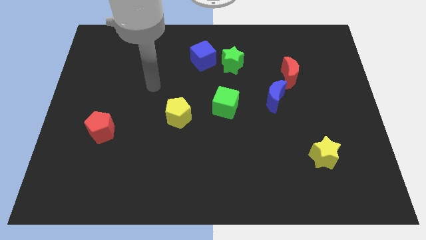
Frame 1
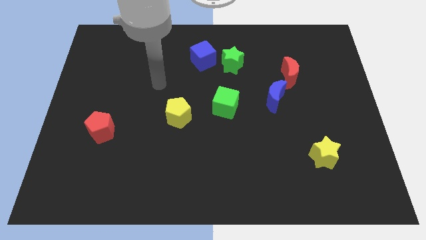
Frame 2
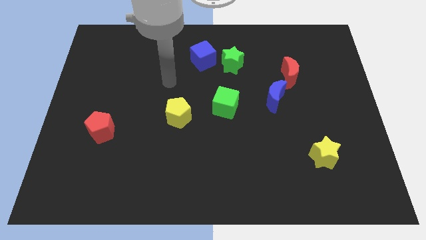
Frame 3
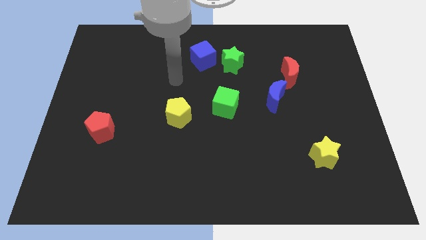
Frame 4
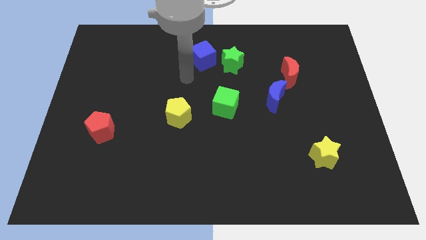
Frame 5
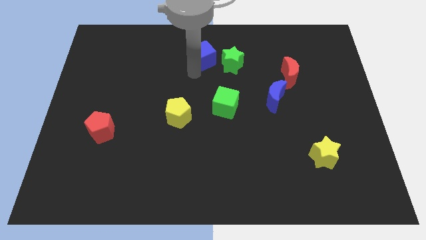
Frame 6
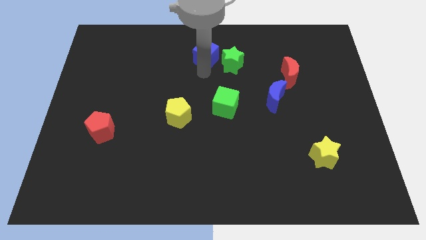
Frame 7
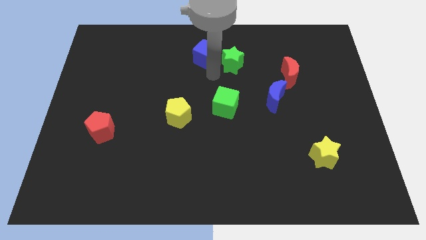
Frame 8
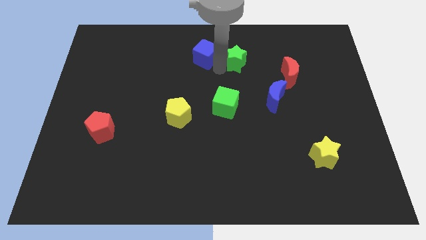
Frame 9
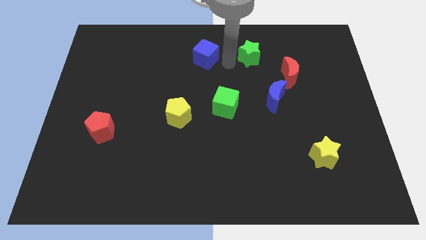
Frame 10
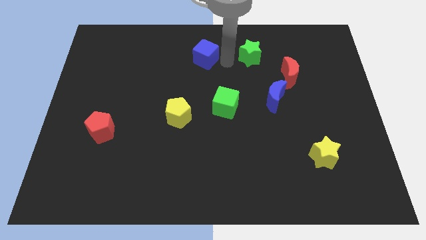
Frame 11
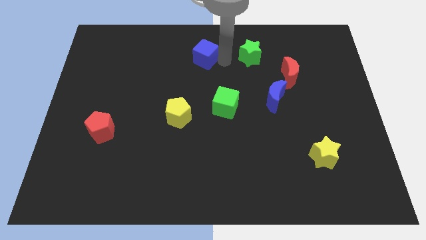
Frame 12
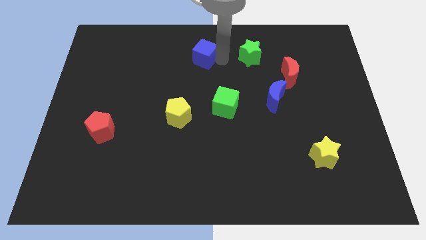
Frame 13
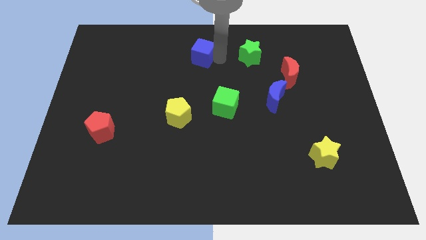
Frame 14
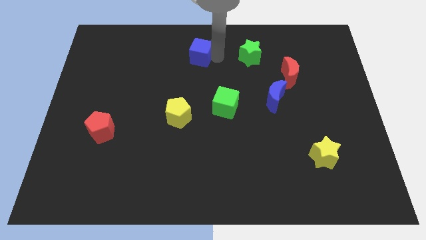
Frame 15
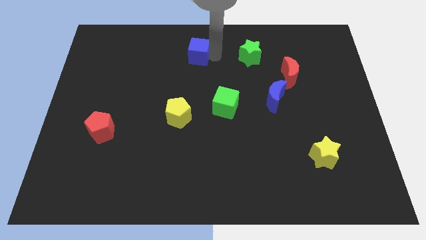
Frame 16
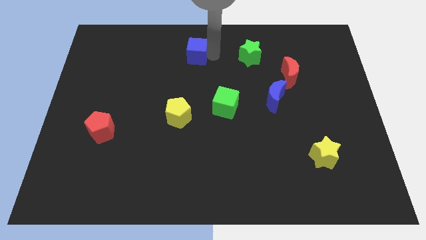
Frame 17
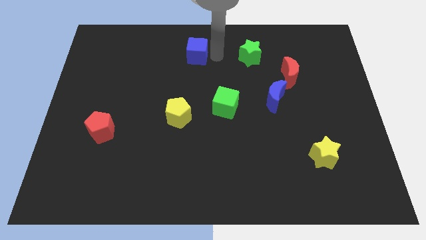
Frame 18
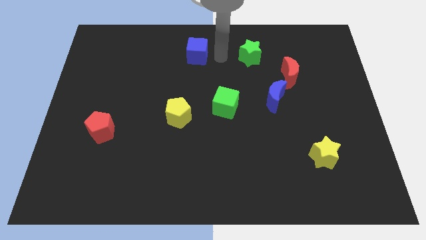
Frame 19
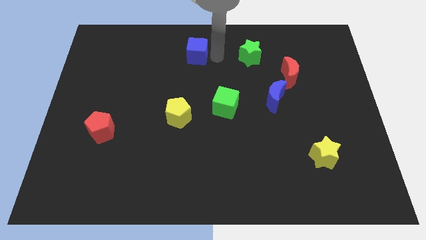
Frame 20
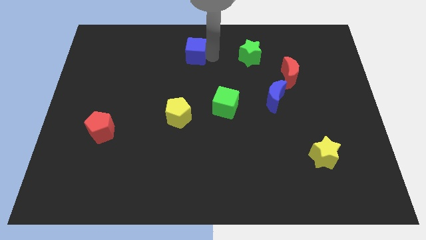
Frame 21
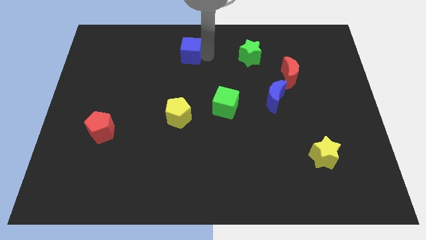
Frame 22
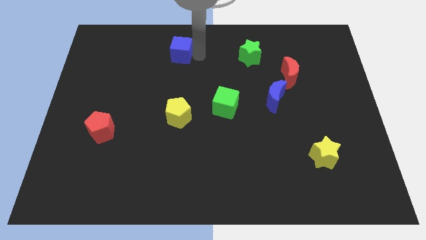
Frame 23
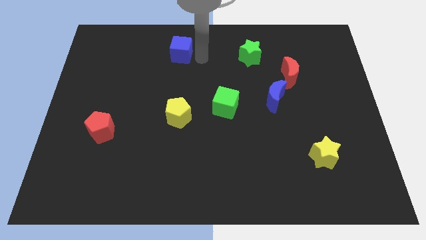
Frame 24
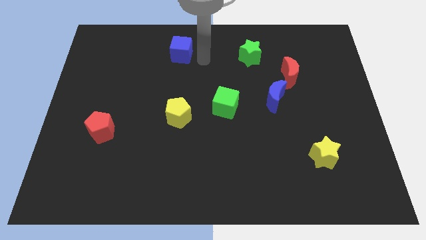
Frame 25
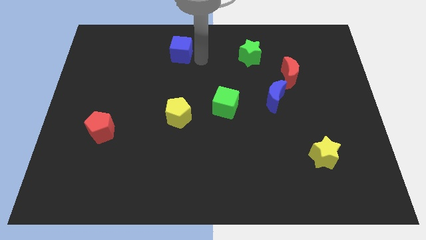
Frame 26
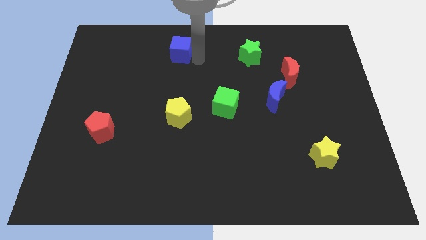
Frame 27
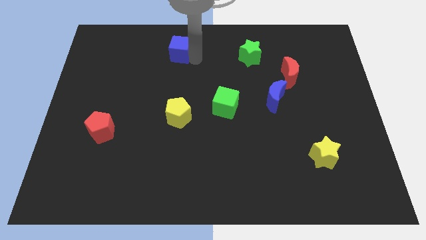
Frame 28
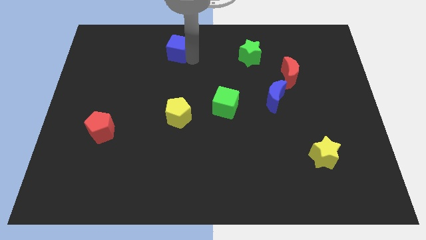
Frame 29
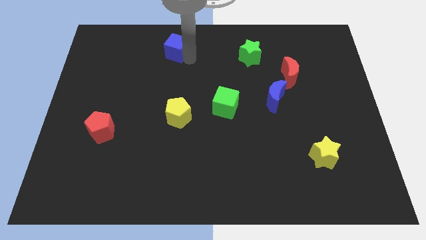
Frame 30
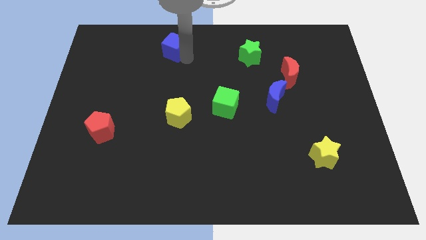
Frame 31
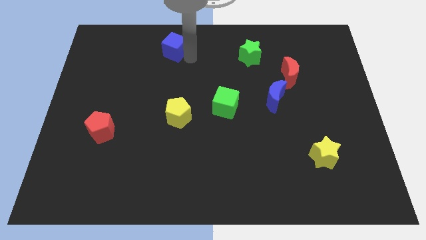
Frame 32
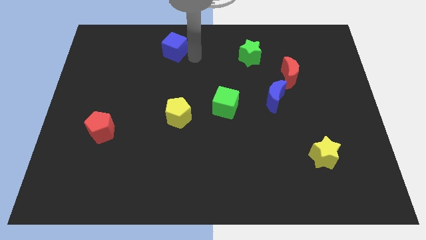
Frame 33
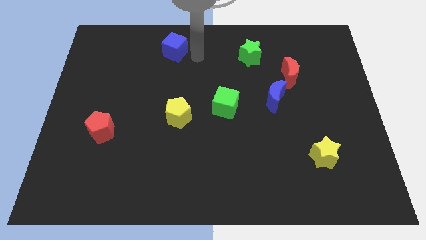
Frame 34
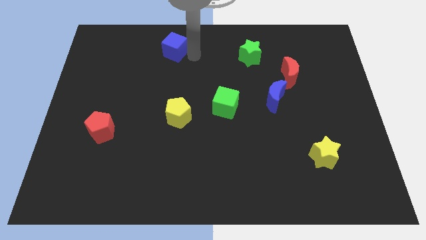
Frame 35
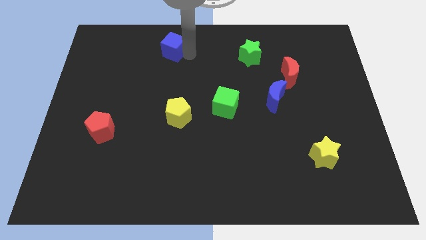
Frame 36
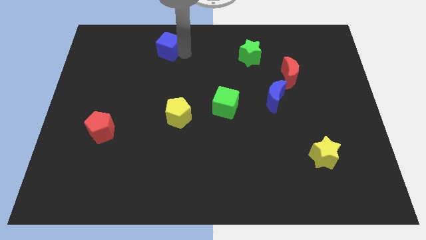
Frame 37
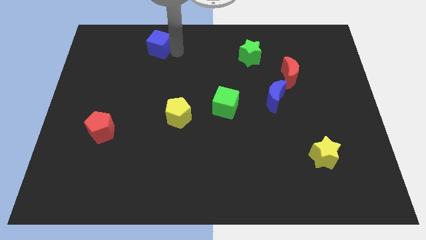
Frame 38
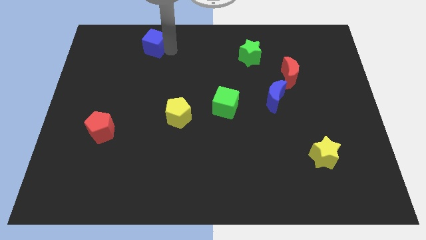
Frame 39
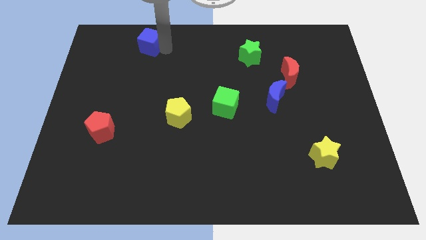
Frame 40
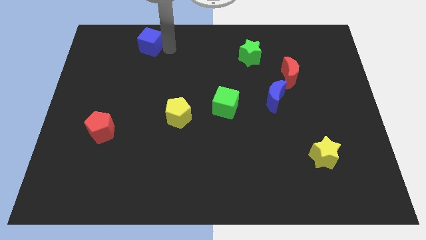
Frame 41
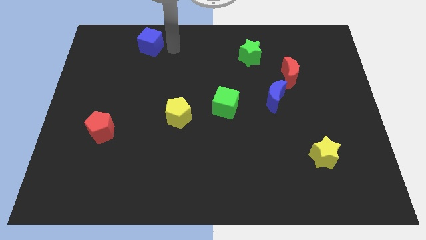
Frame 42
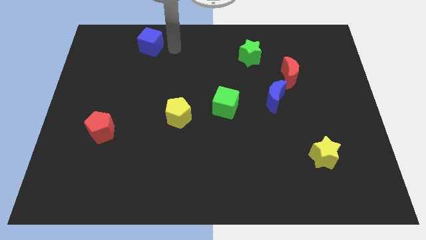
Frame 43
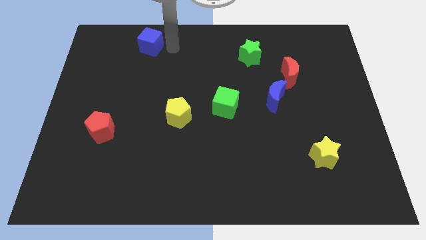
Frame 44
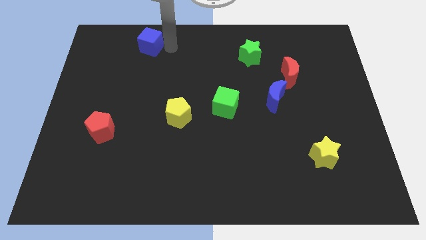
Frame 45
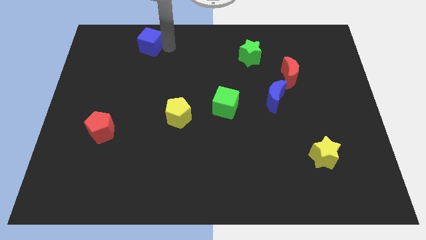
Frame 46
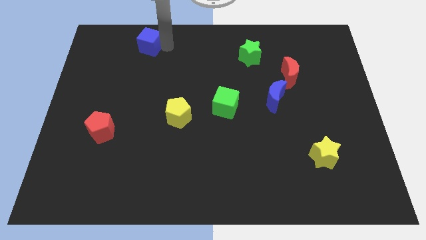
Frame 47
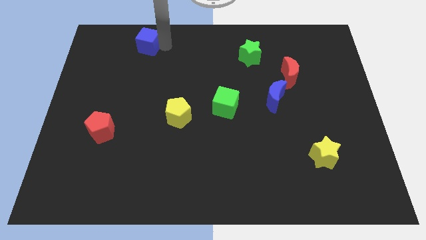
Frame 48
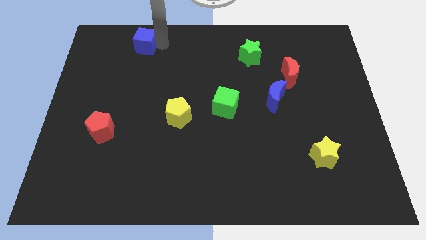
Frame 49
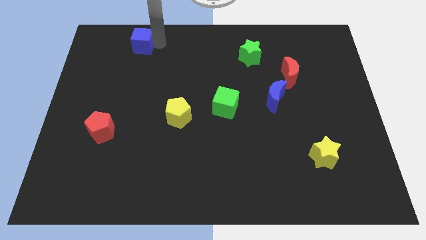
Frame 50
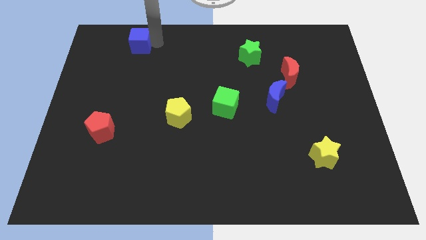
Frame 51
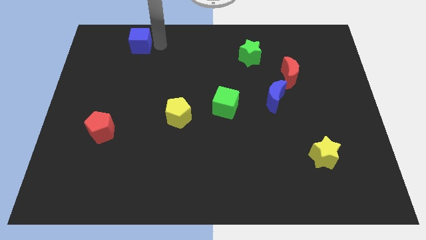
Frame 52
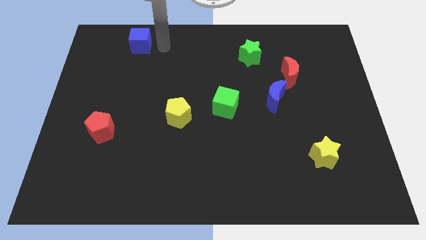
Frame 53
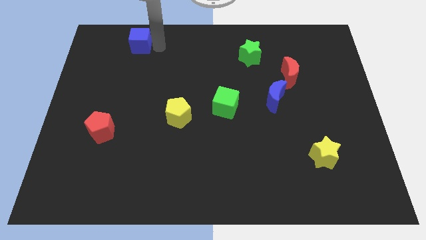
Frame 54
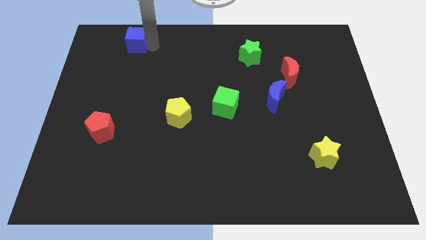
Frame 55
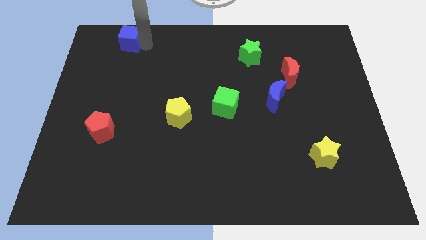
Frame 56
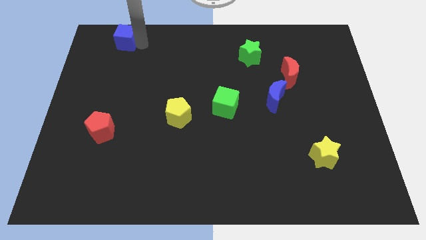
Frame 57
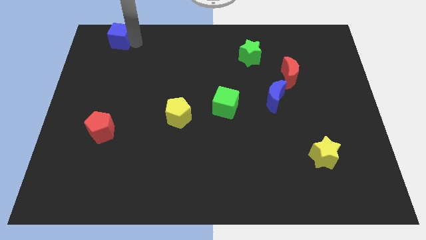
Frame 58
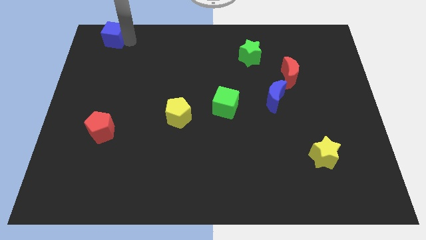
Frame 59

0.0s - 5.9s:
put the blue cube to the top left of the board

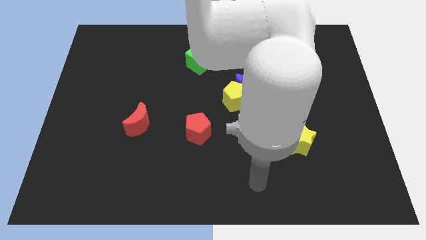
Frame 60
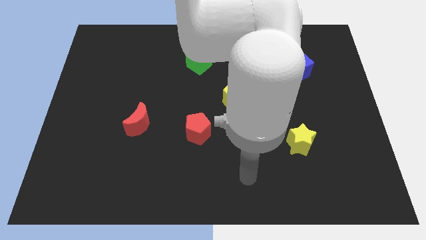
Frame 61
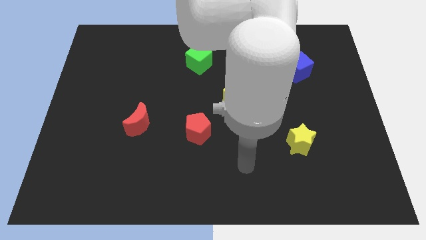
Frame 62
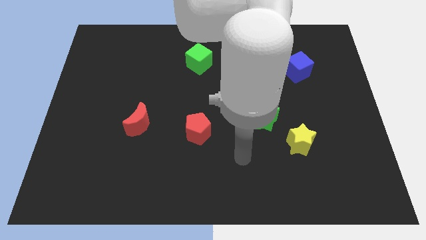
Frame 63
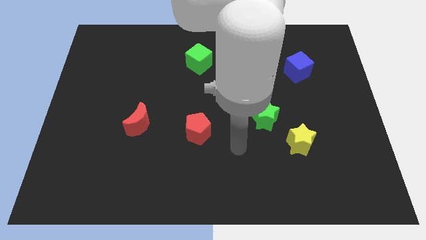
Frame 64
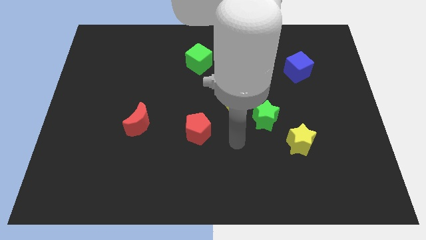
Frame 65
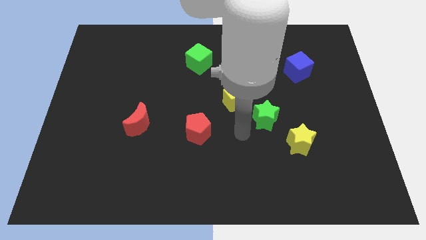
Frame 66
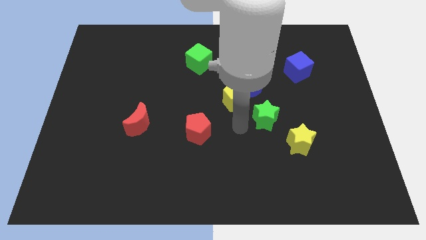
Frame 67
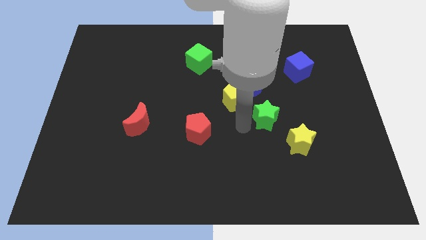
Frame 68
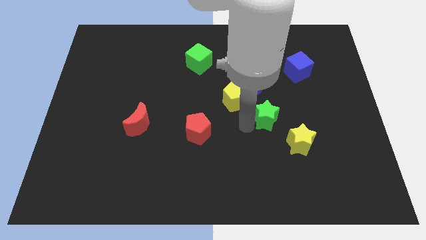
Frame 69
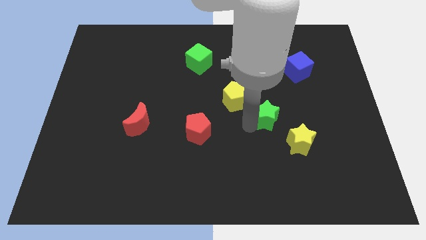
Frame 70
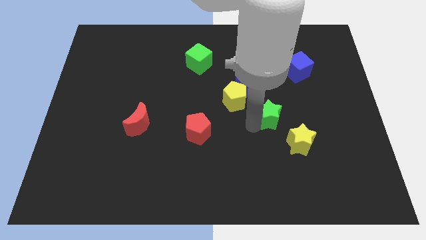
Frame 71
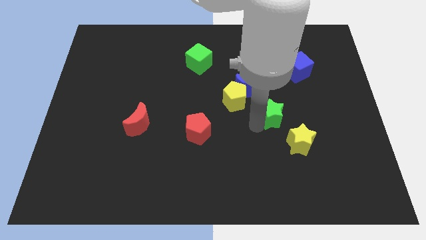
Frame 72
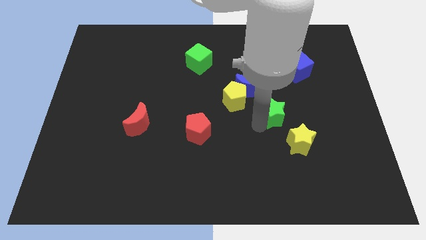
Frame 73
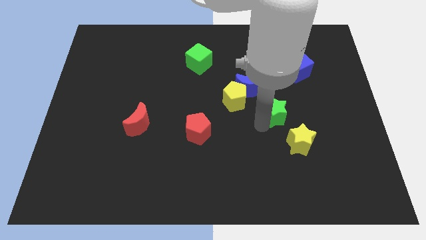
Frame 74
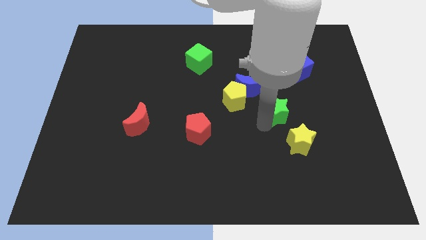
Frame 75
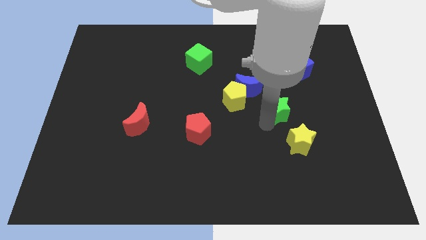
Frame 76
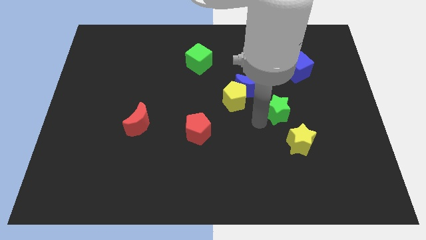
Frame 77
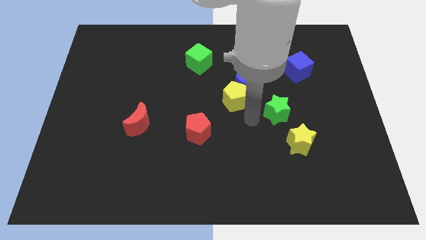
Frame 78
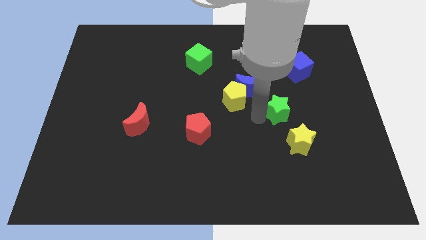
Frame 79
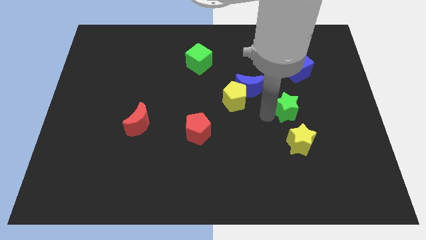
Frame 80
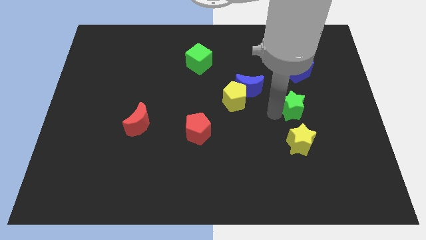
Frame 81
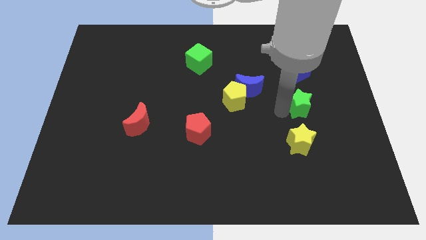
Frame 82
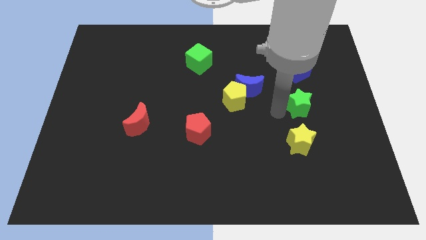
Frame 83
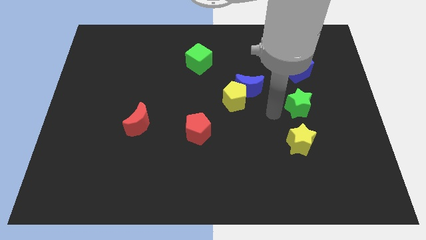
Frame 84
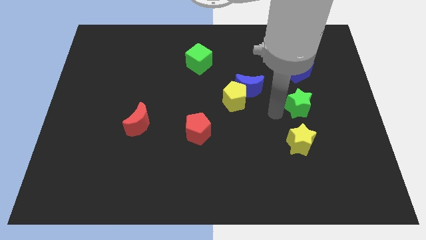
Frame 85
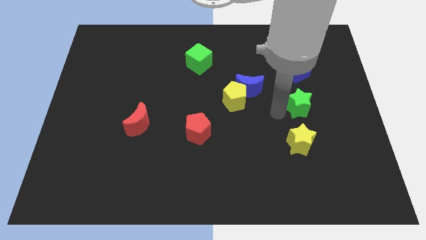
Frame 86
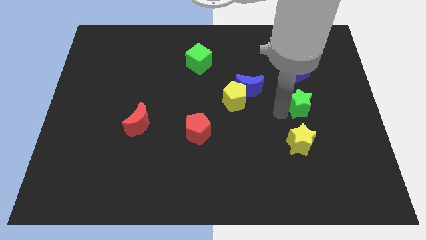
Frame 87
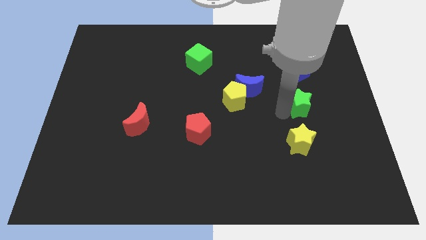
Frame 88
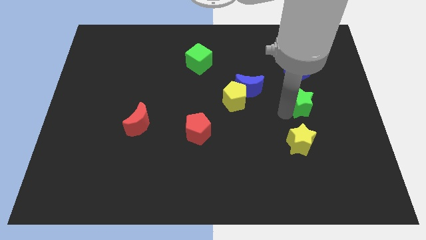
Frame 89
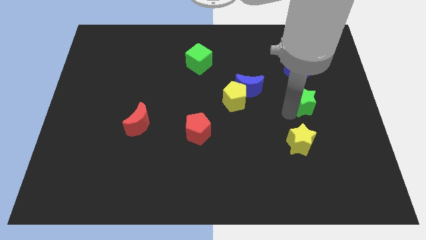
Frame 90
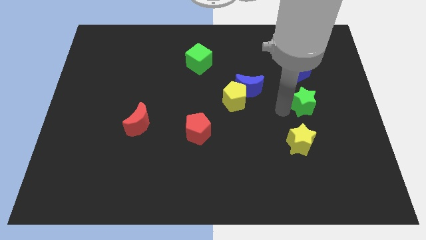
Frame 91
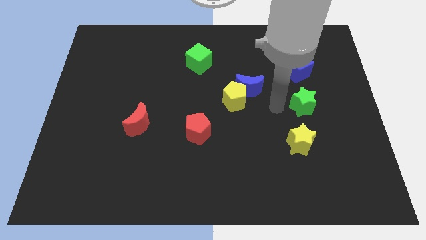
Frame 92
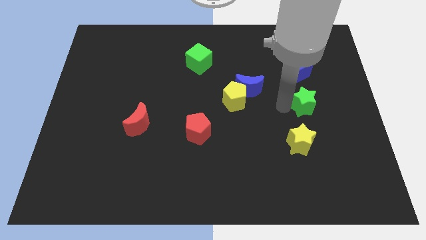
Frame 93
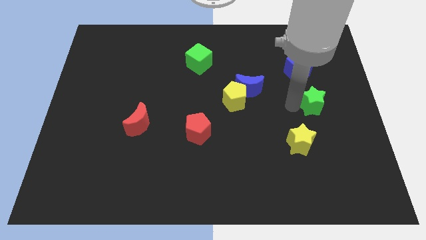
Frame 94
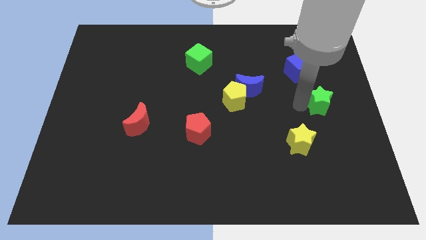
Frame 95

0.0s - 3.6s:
move the green star to the center right
